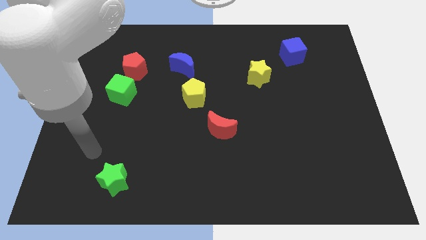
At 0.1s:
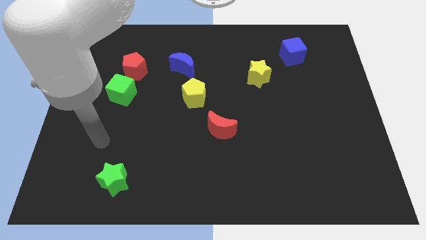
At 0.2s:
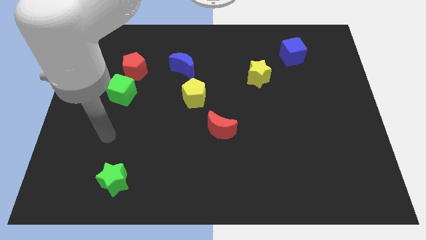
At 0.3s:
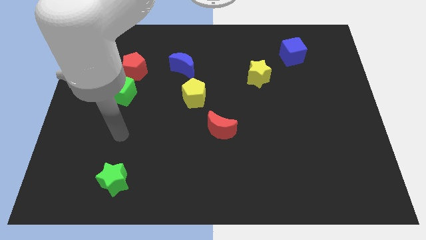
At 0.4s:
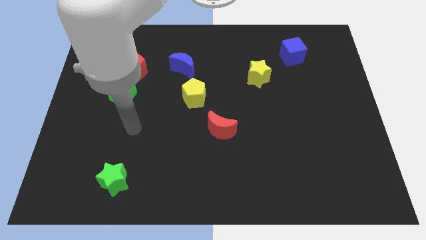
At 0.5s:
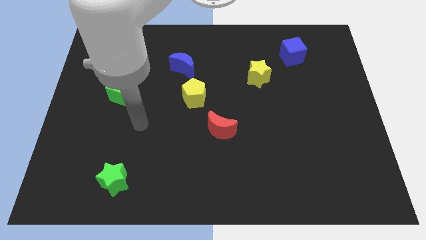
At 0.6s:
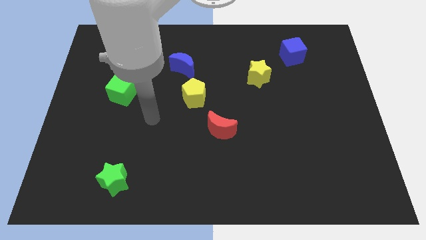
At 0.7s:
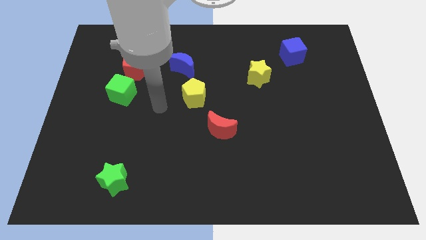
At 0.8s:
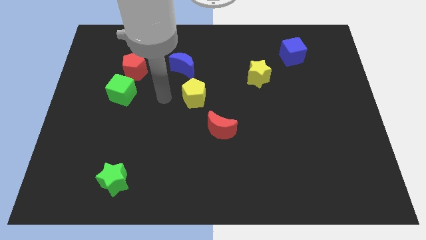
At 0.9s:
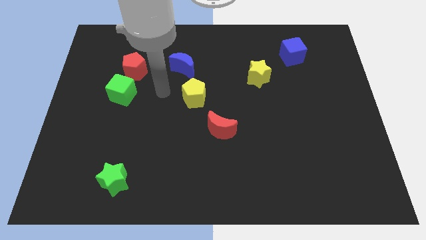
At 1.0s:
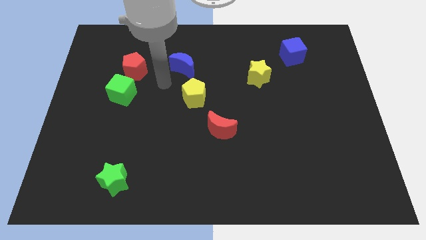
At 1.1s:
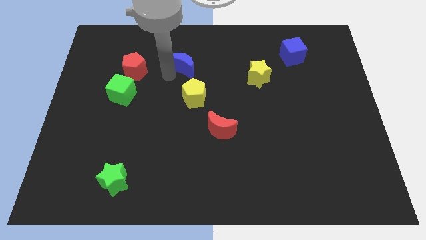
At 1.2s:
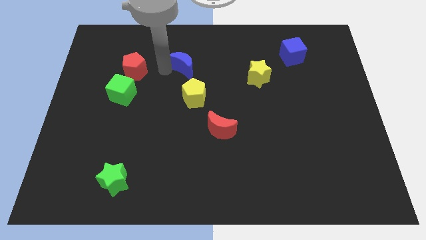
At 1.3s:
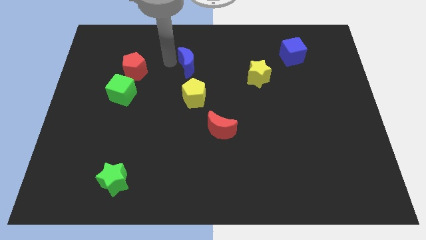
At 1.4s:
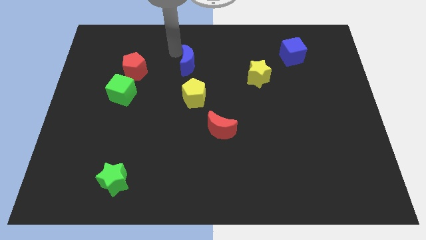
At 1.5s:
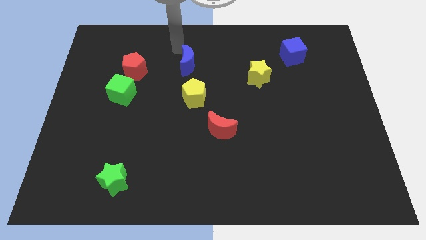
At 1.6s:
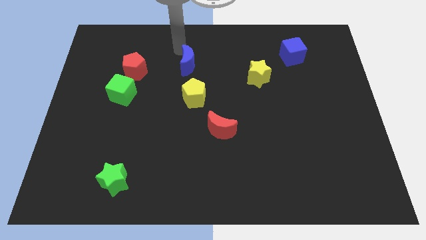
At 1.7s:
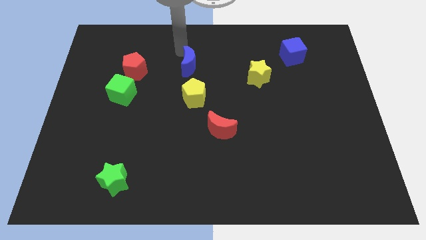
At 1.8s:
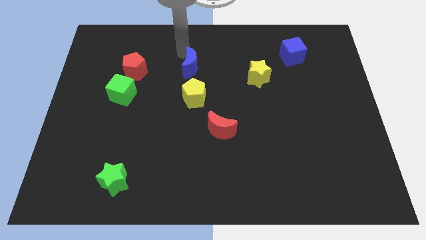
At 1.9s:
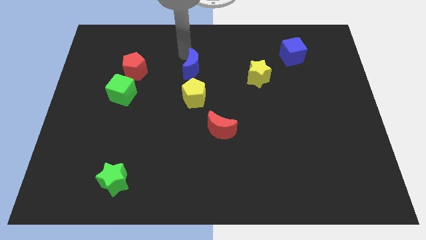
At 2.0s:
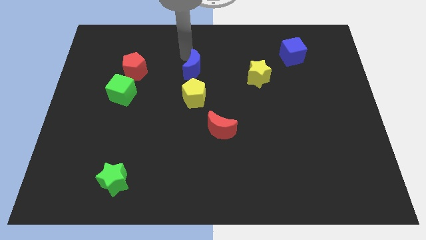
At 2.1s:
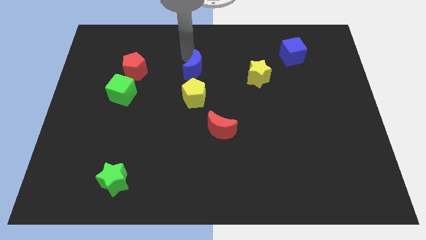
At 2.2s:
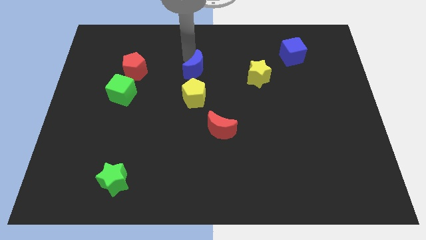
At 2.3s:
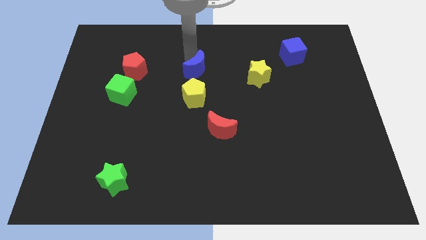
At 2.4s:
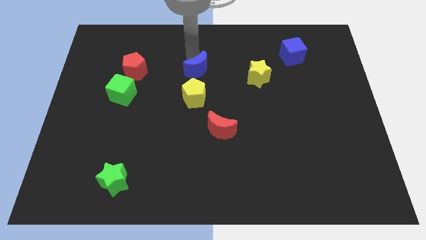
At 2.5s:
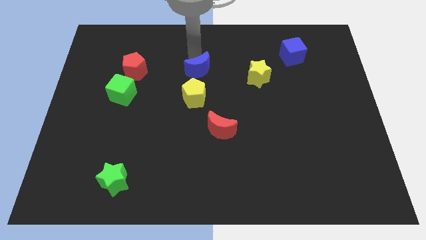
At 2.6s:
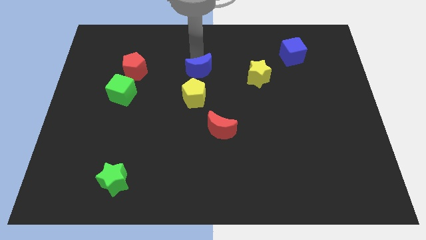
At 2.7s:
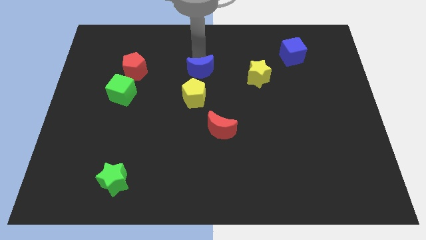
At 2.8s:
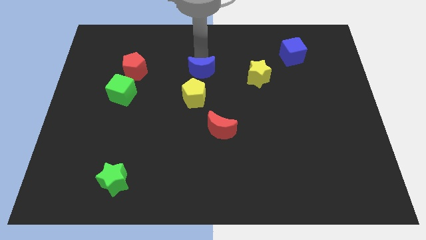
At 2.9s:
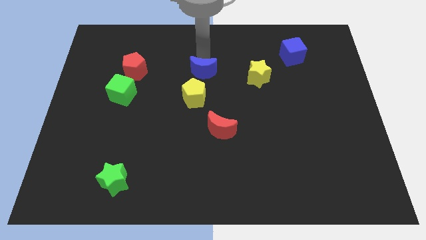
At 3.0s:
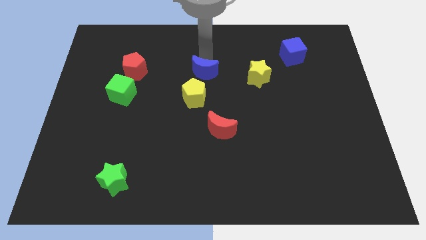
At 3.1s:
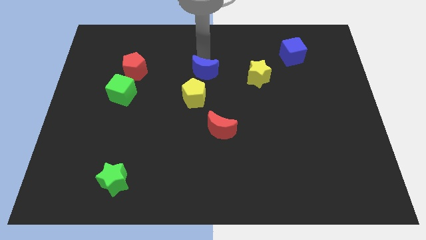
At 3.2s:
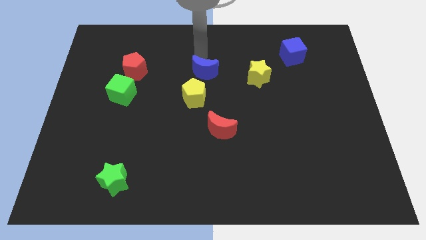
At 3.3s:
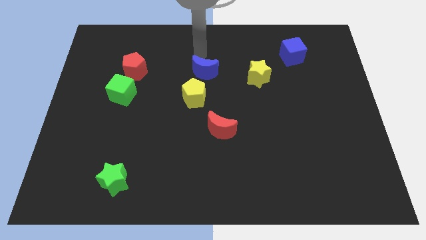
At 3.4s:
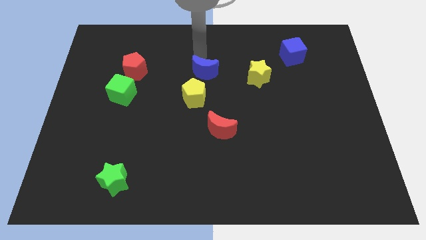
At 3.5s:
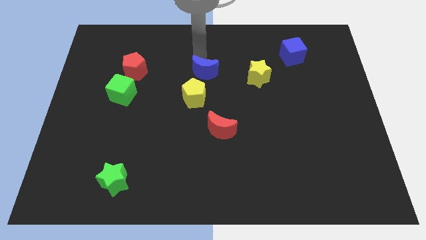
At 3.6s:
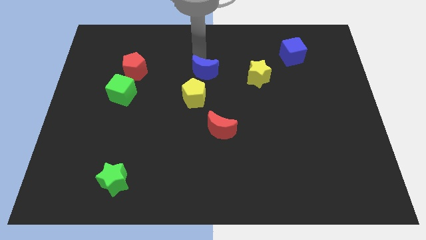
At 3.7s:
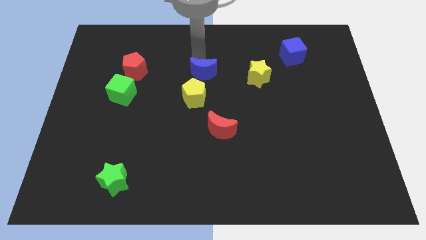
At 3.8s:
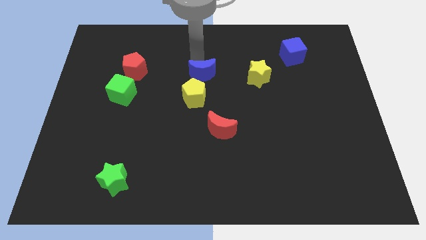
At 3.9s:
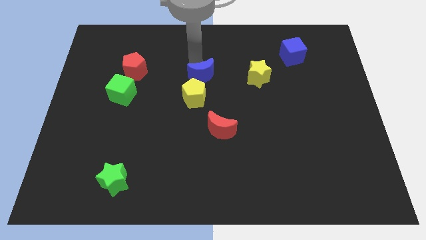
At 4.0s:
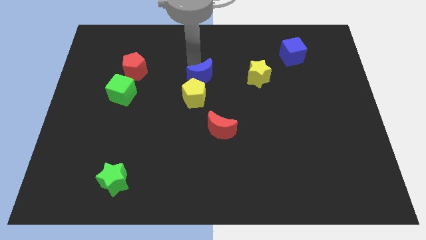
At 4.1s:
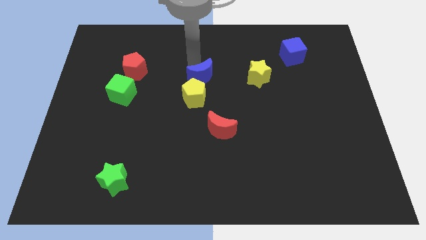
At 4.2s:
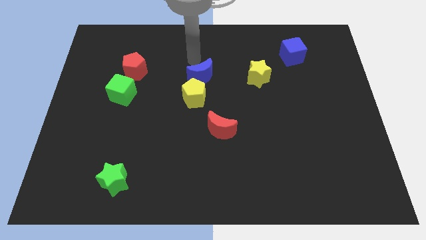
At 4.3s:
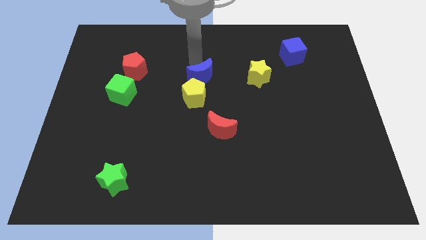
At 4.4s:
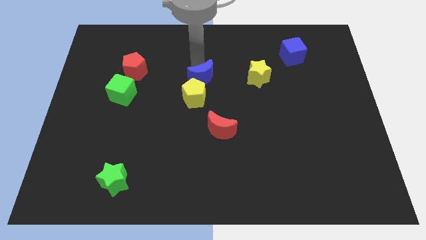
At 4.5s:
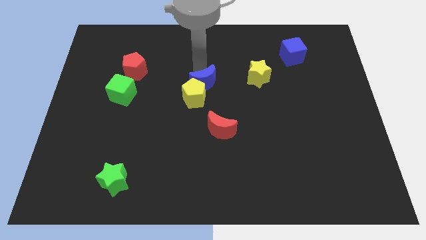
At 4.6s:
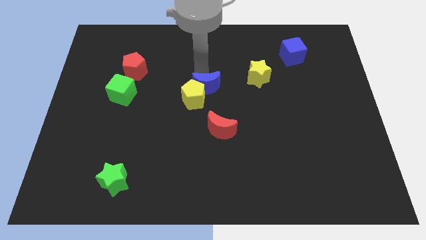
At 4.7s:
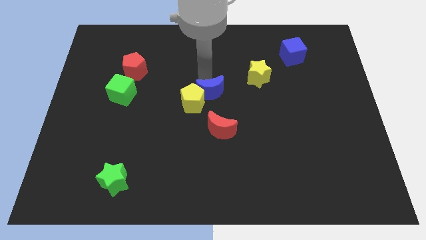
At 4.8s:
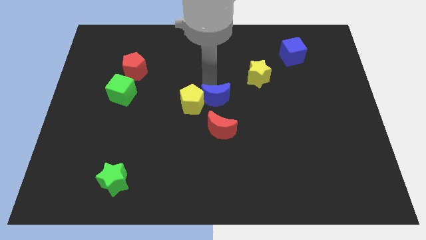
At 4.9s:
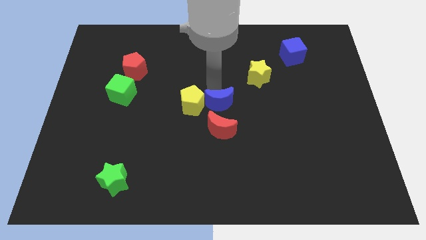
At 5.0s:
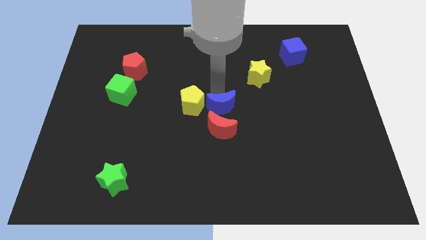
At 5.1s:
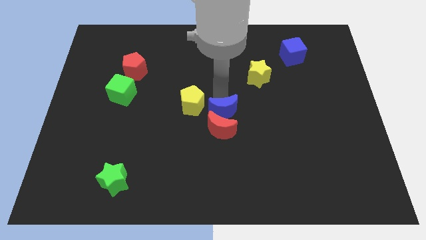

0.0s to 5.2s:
put the blue moon to the red moon

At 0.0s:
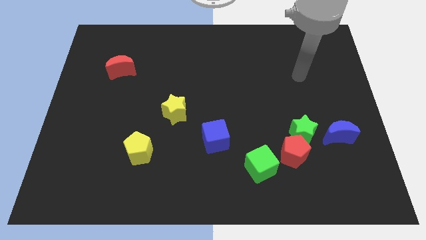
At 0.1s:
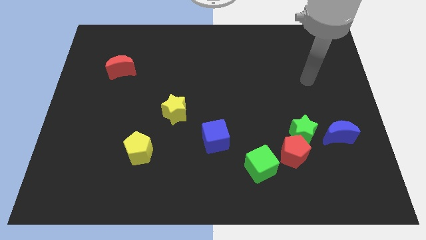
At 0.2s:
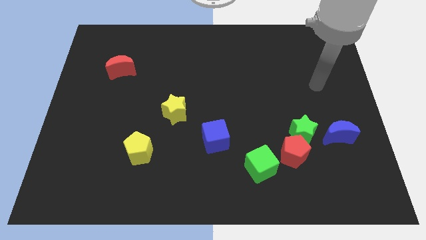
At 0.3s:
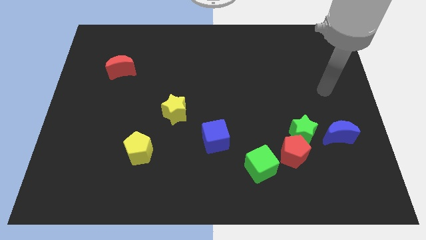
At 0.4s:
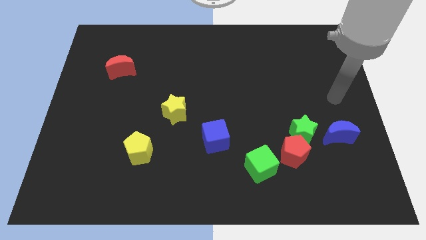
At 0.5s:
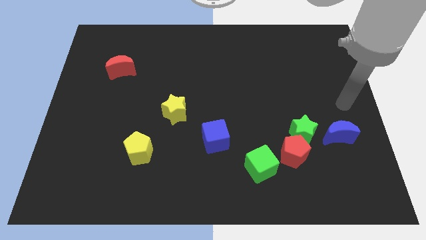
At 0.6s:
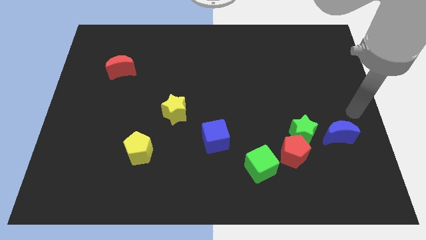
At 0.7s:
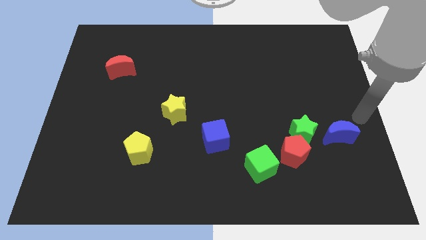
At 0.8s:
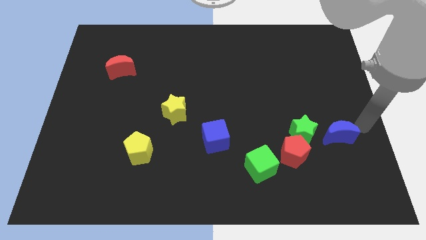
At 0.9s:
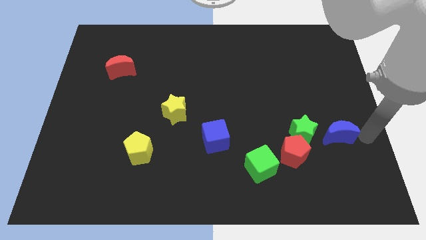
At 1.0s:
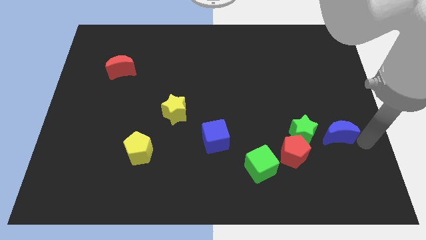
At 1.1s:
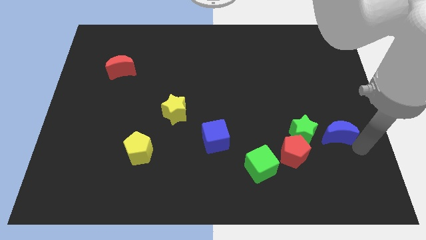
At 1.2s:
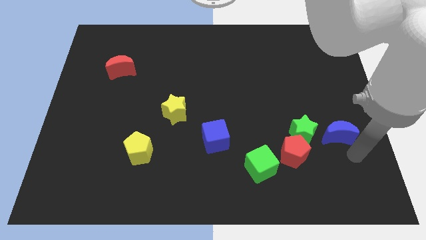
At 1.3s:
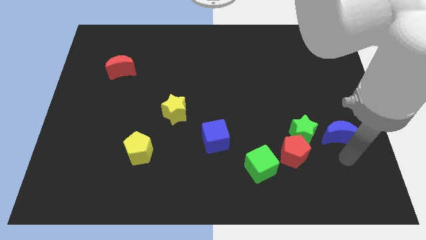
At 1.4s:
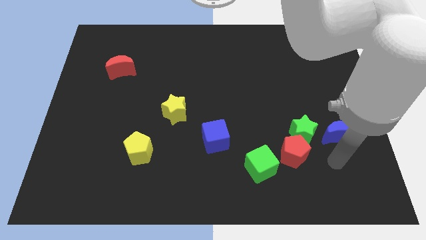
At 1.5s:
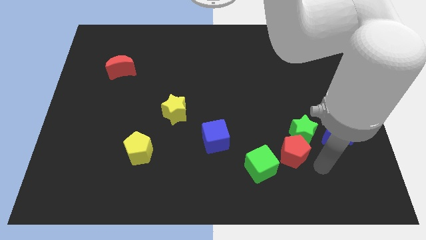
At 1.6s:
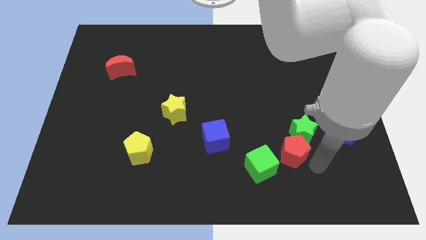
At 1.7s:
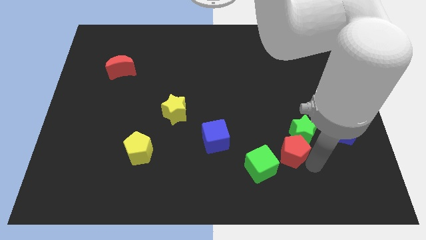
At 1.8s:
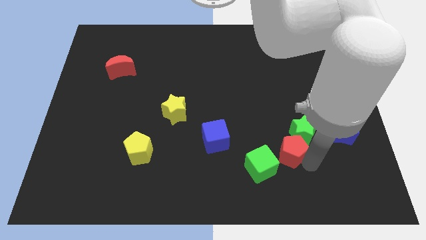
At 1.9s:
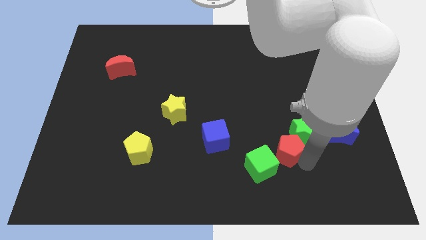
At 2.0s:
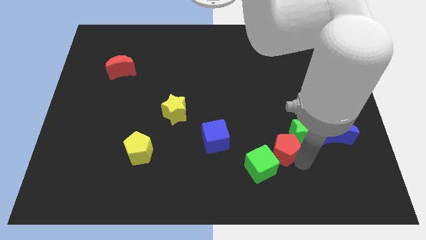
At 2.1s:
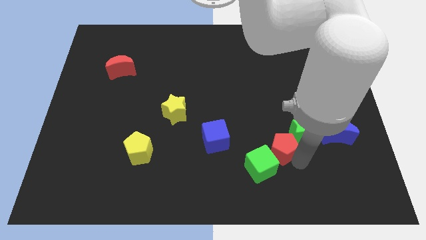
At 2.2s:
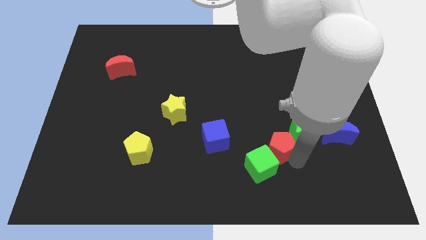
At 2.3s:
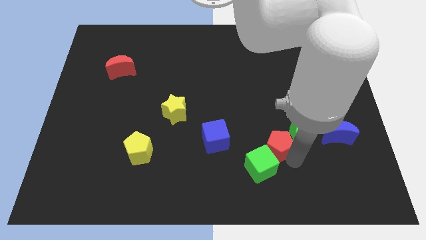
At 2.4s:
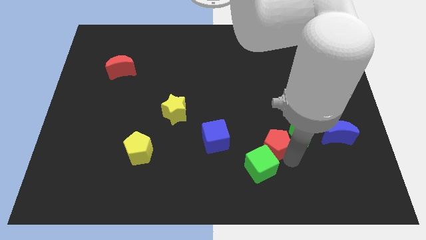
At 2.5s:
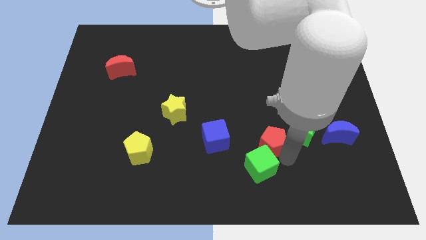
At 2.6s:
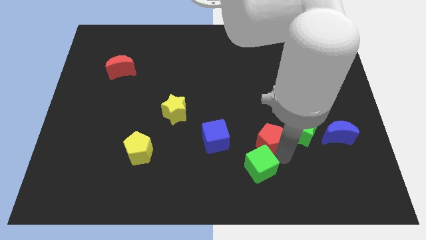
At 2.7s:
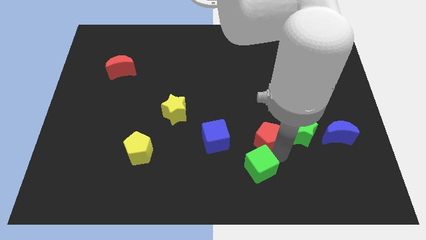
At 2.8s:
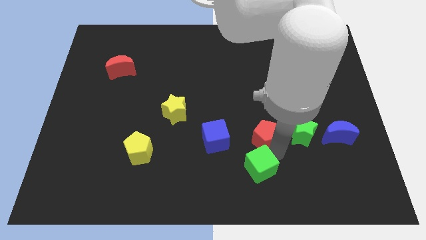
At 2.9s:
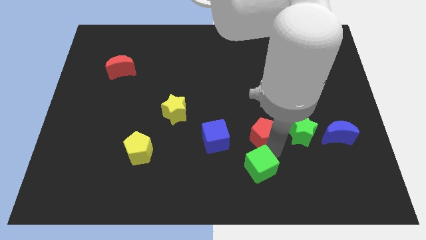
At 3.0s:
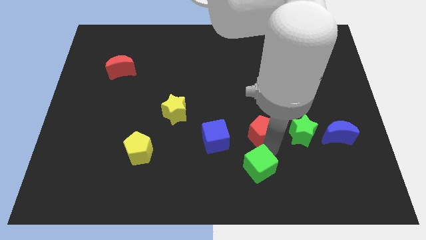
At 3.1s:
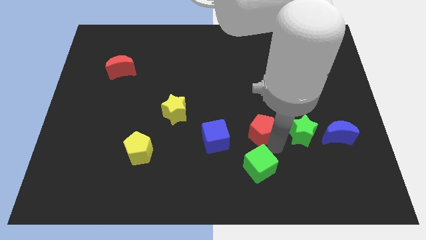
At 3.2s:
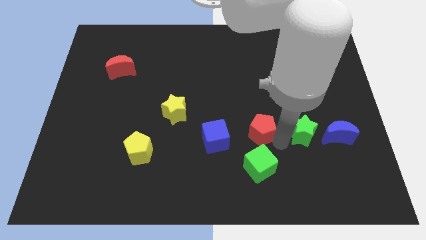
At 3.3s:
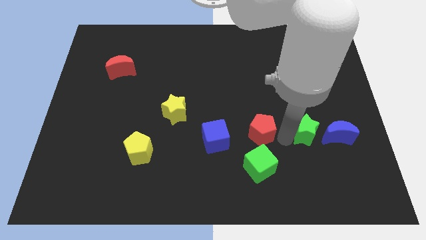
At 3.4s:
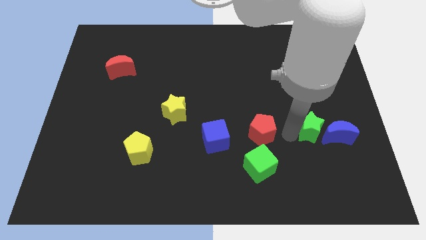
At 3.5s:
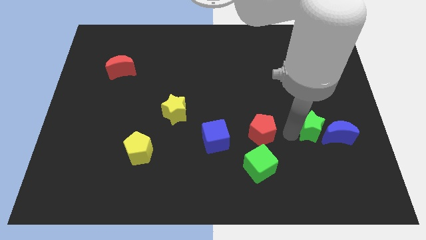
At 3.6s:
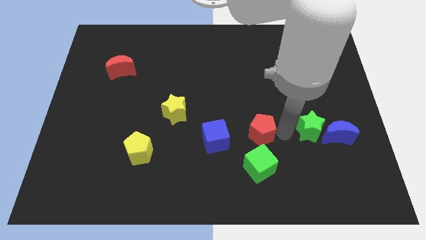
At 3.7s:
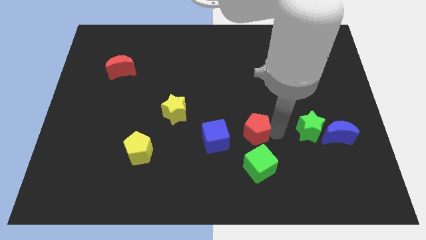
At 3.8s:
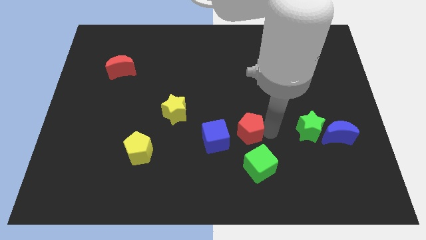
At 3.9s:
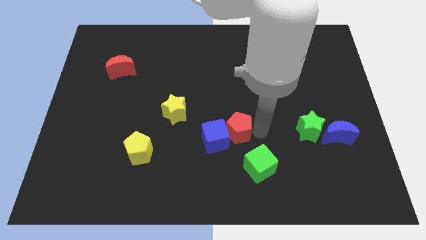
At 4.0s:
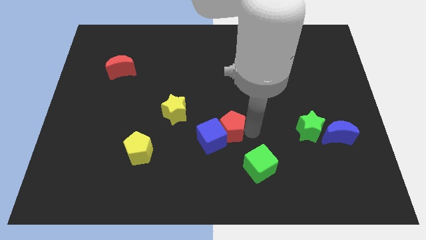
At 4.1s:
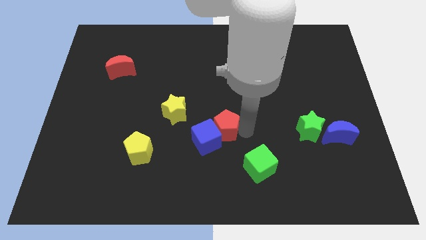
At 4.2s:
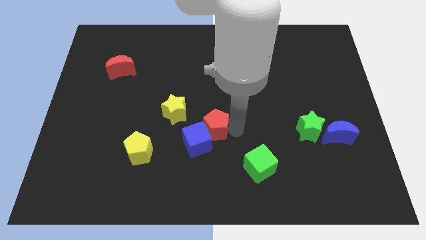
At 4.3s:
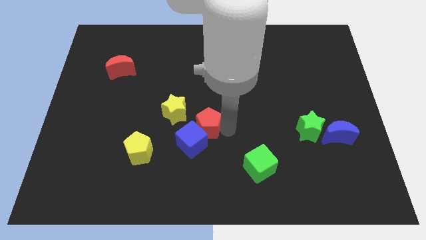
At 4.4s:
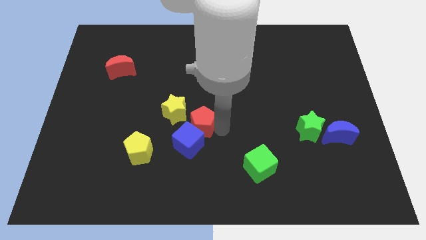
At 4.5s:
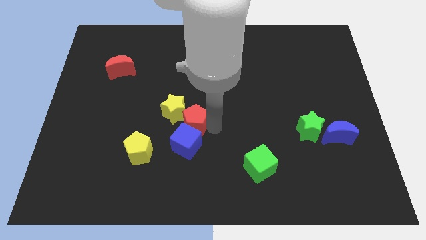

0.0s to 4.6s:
put the red pentagon close to the yellow star
